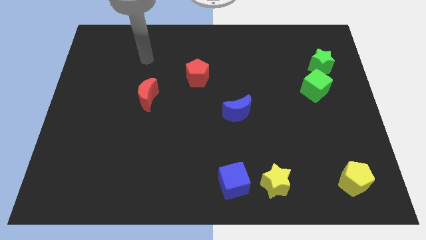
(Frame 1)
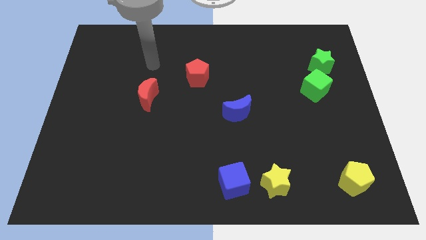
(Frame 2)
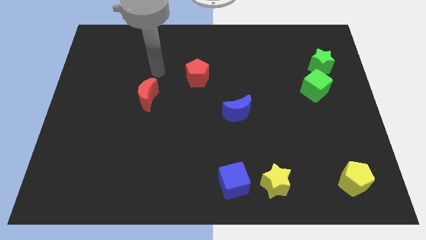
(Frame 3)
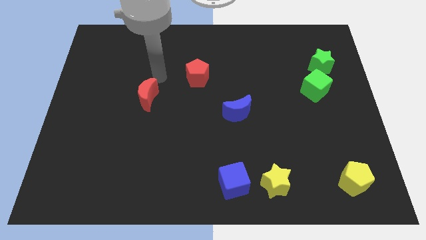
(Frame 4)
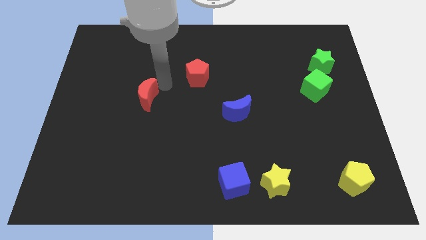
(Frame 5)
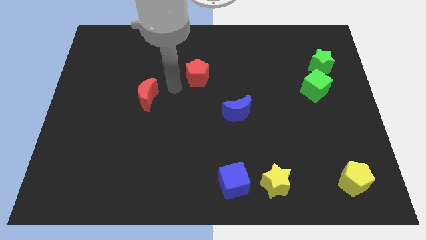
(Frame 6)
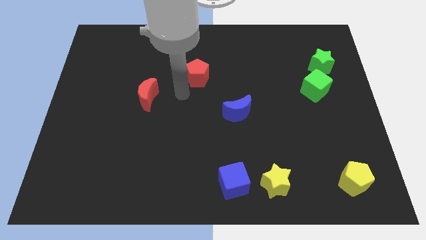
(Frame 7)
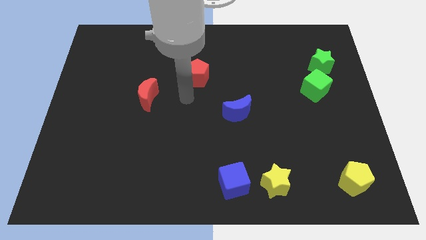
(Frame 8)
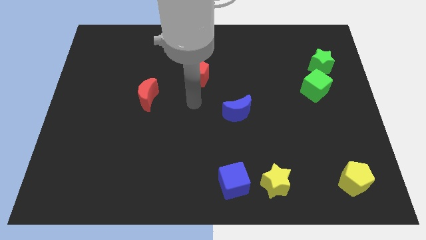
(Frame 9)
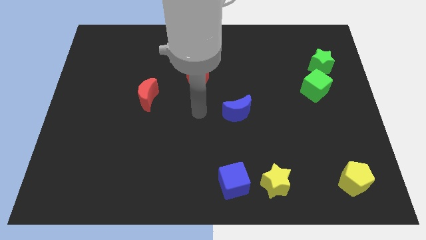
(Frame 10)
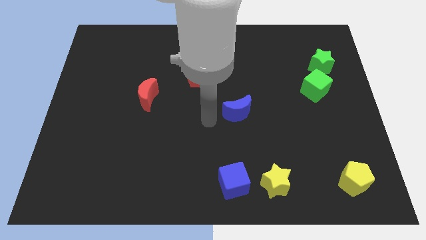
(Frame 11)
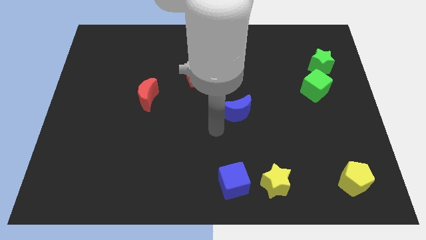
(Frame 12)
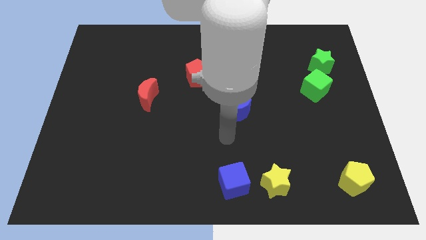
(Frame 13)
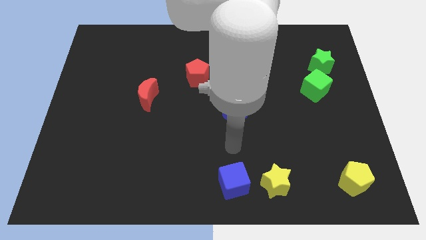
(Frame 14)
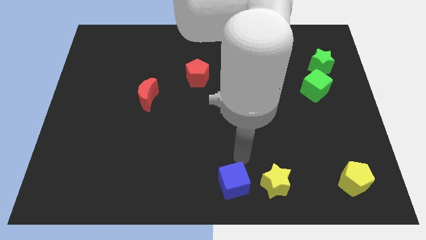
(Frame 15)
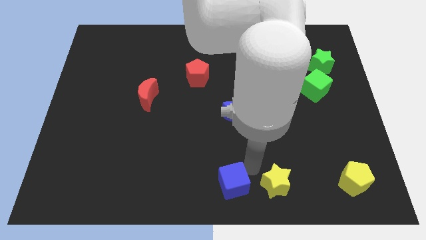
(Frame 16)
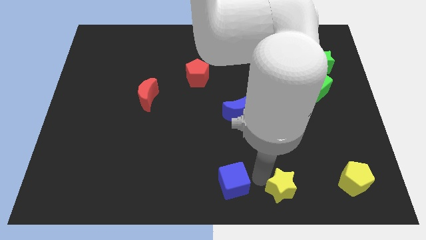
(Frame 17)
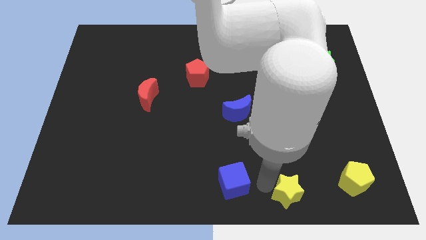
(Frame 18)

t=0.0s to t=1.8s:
pull the blue cube apart from the yellow star

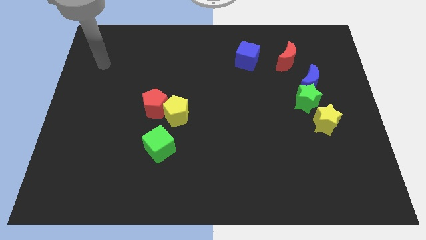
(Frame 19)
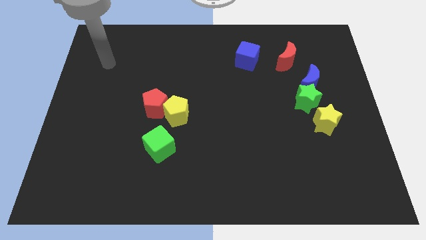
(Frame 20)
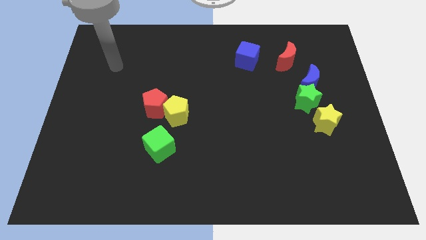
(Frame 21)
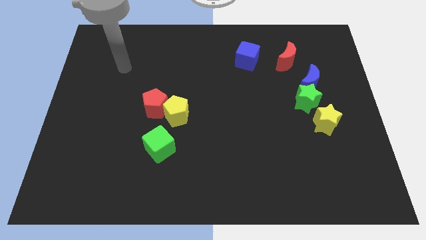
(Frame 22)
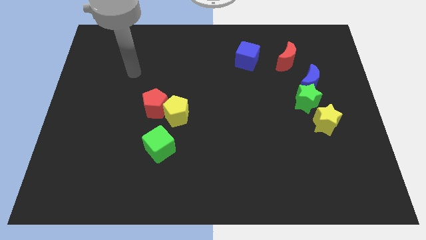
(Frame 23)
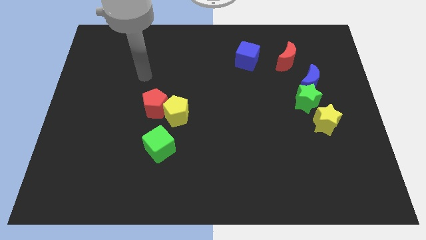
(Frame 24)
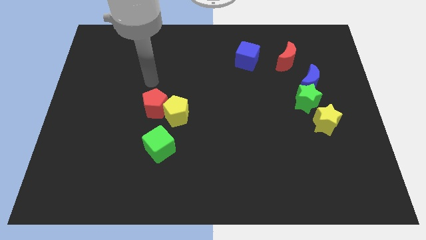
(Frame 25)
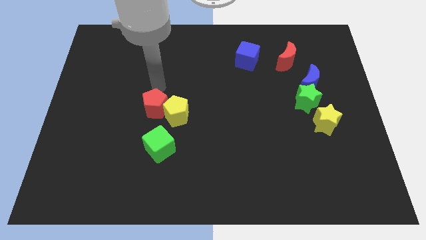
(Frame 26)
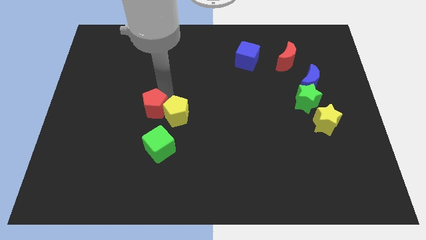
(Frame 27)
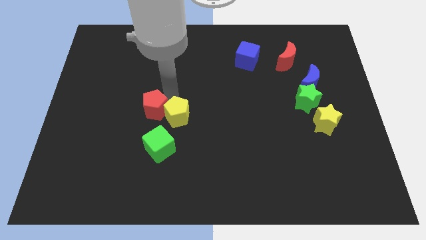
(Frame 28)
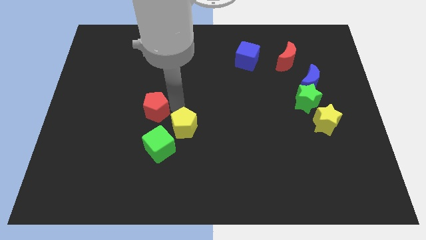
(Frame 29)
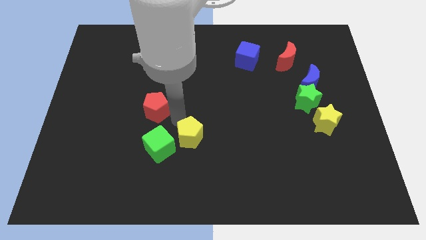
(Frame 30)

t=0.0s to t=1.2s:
pull the red pentagon apart from the yellow pentagon

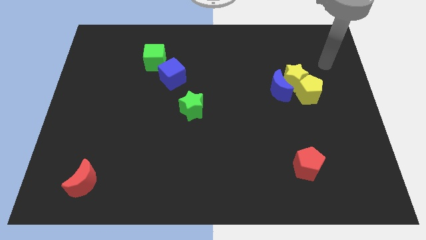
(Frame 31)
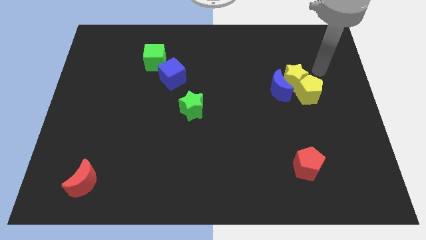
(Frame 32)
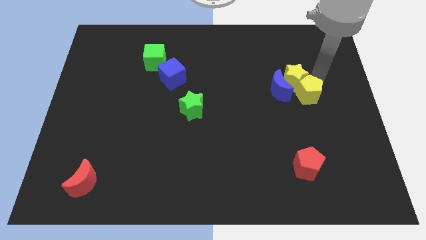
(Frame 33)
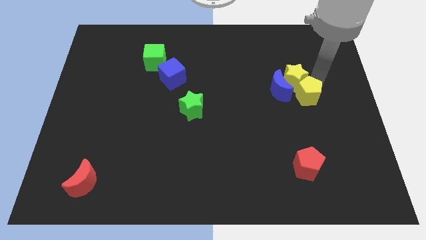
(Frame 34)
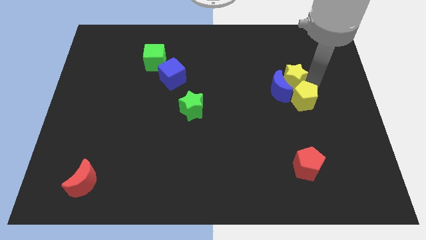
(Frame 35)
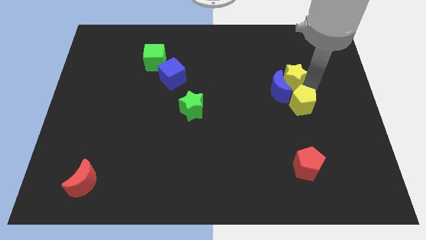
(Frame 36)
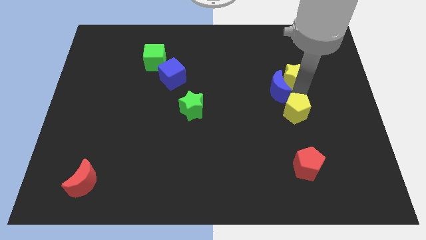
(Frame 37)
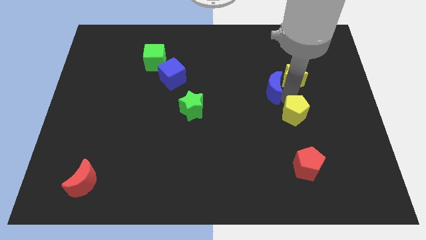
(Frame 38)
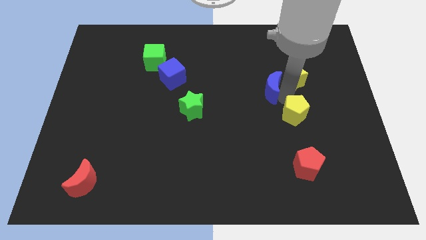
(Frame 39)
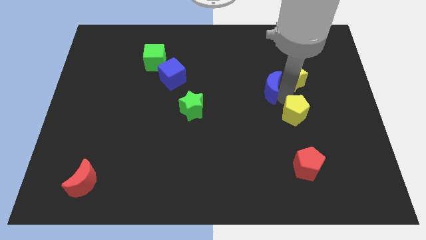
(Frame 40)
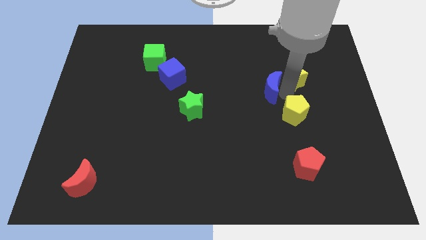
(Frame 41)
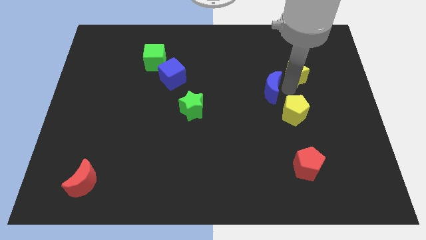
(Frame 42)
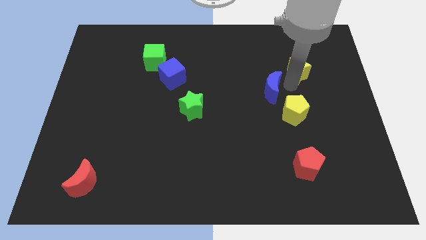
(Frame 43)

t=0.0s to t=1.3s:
move the yellow star away from the blue moon and yellow pentagon

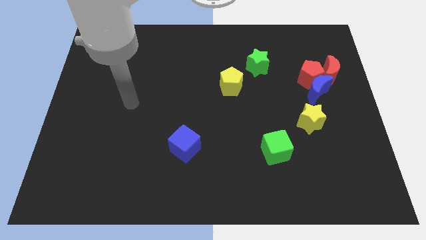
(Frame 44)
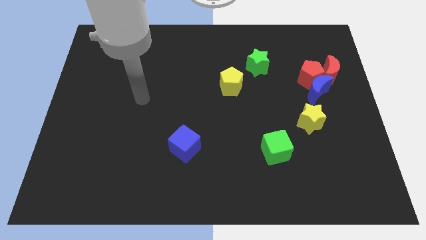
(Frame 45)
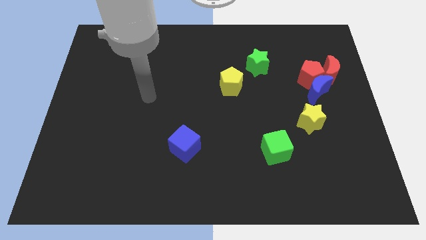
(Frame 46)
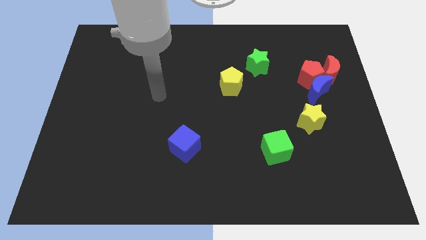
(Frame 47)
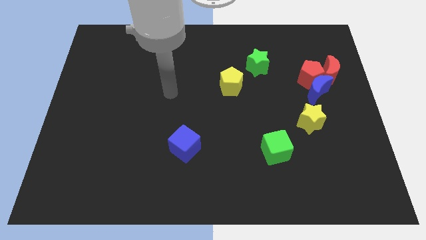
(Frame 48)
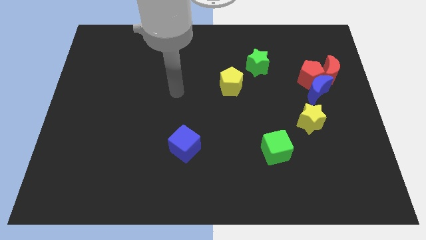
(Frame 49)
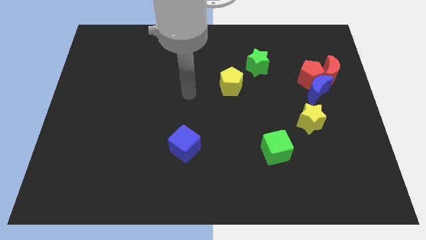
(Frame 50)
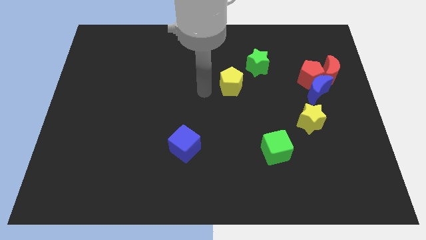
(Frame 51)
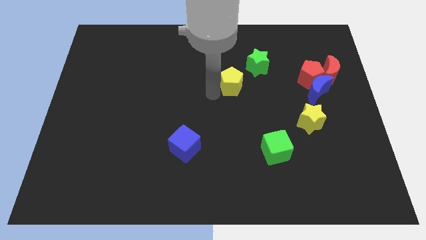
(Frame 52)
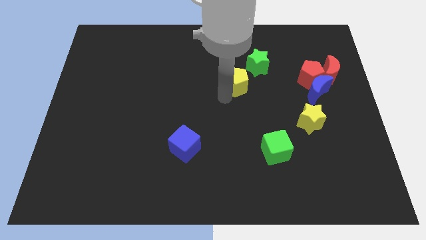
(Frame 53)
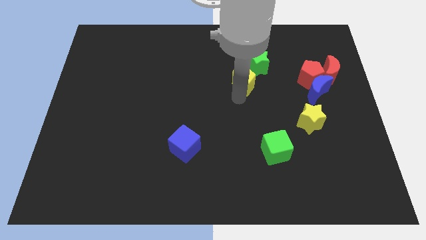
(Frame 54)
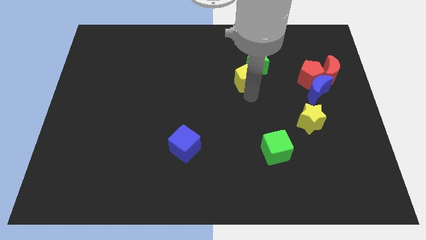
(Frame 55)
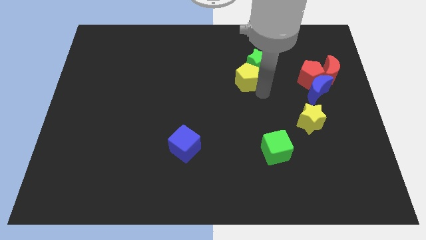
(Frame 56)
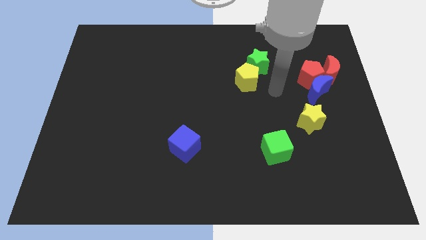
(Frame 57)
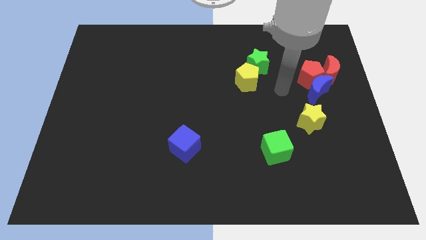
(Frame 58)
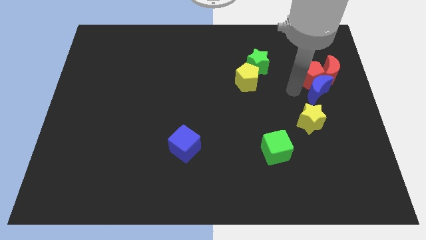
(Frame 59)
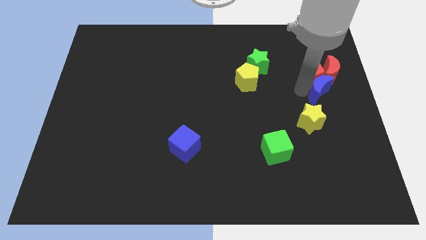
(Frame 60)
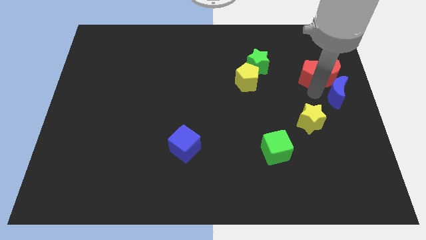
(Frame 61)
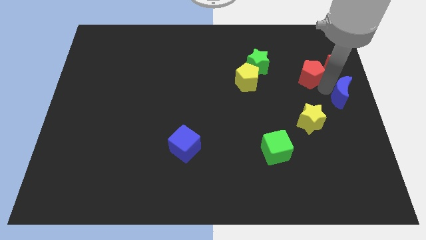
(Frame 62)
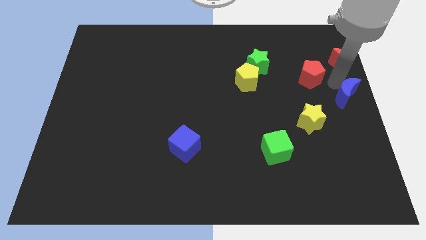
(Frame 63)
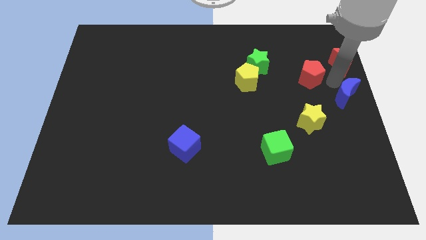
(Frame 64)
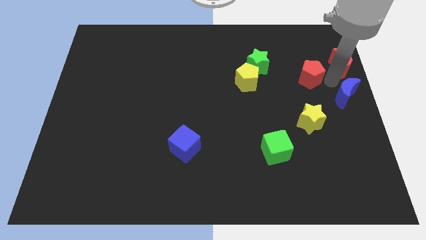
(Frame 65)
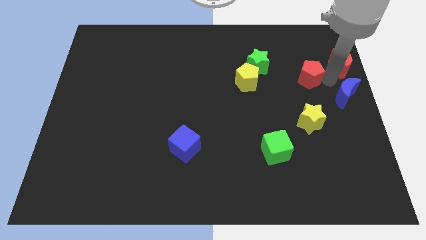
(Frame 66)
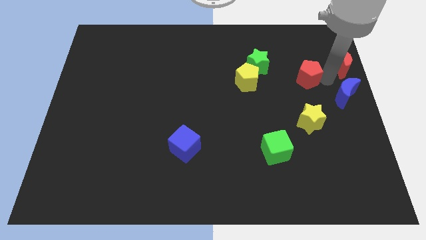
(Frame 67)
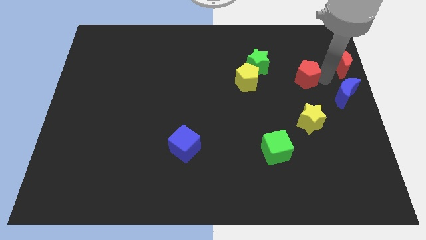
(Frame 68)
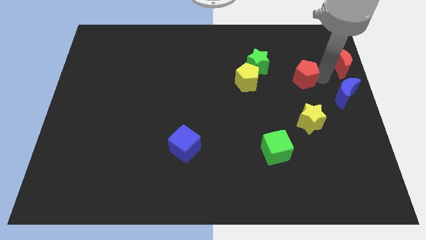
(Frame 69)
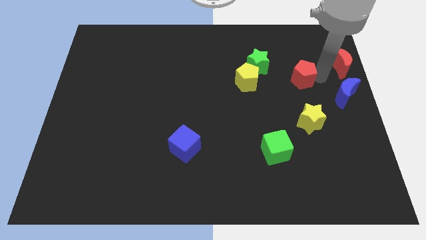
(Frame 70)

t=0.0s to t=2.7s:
separate the red pentagon from the blue moon and red moon

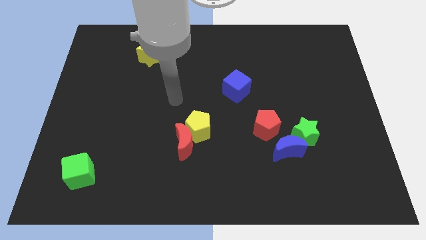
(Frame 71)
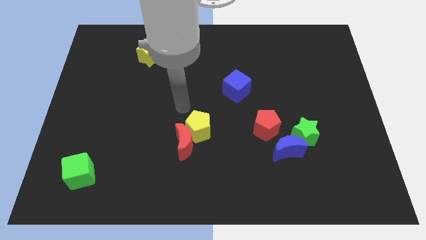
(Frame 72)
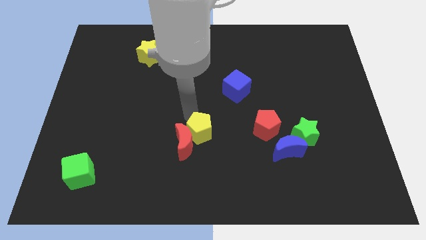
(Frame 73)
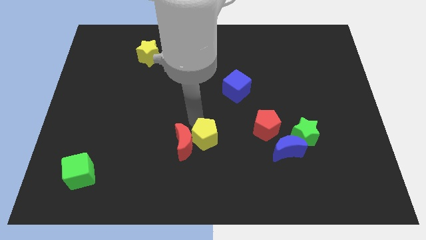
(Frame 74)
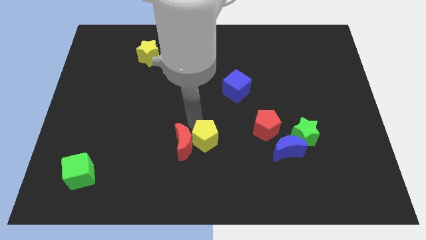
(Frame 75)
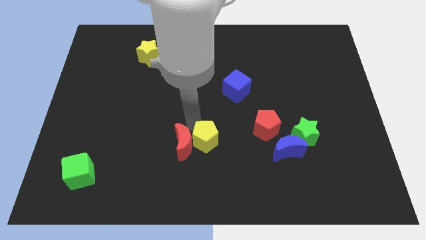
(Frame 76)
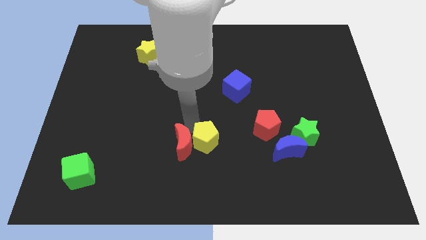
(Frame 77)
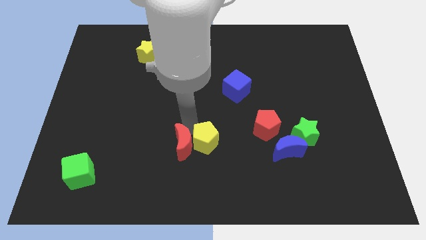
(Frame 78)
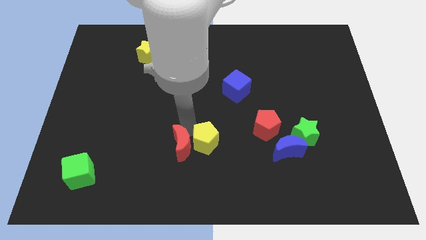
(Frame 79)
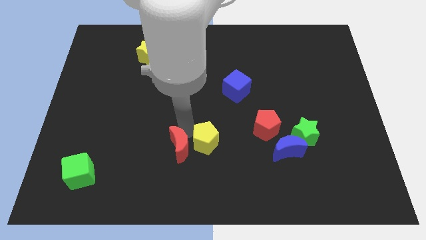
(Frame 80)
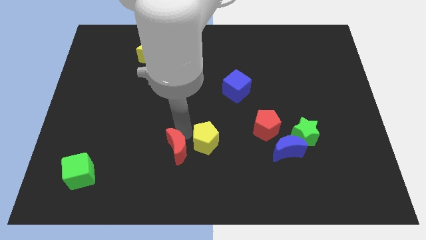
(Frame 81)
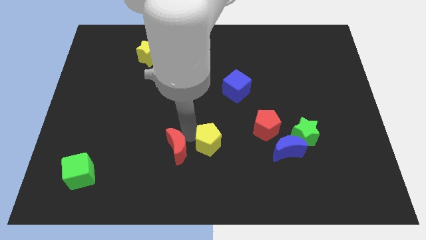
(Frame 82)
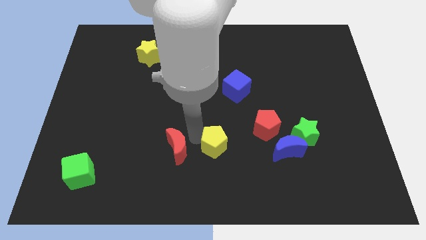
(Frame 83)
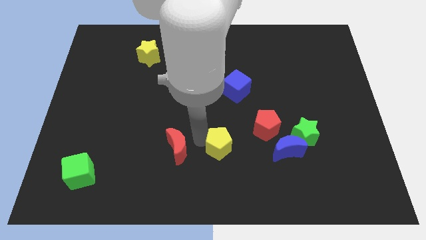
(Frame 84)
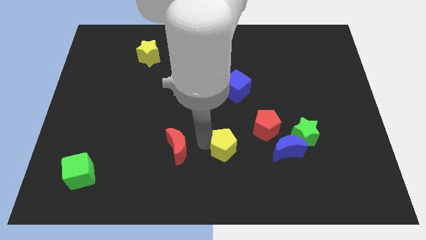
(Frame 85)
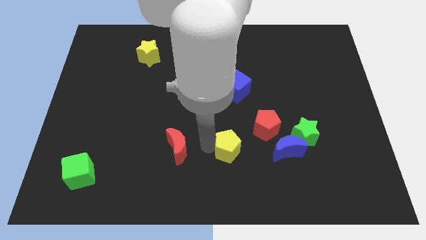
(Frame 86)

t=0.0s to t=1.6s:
move the red moon away from the yellow pentagon

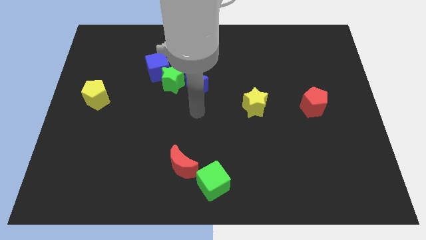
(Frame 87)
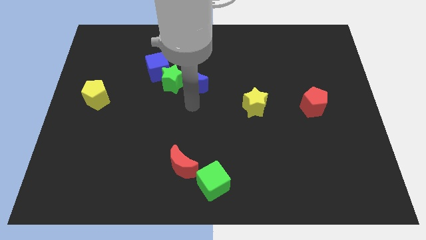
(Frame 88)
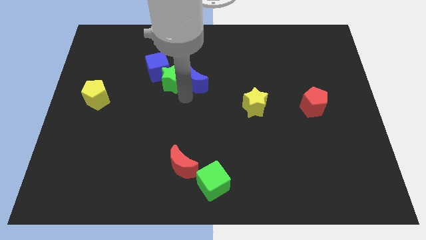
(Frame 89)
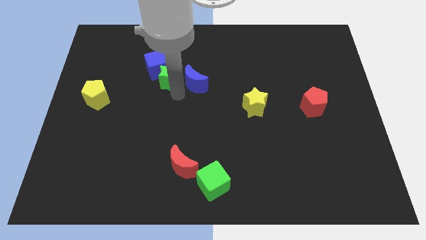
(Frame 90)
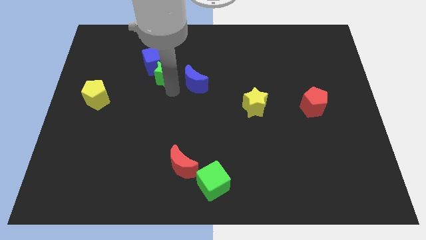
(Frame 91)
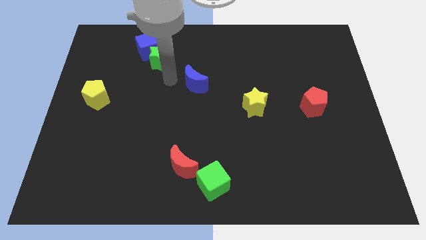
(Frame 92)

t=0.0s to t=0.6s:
separate the blue moon from the green star

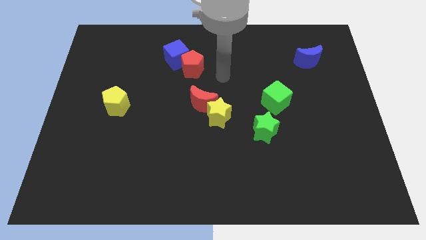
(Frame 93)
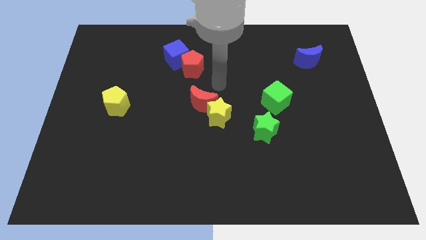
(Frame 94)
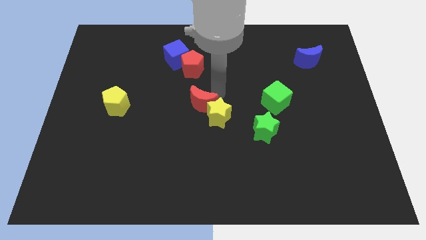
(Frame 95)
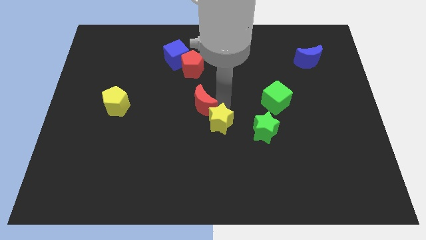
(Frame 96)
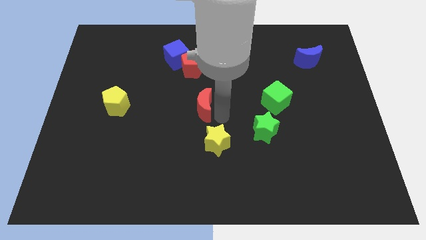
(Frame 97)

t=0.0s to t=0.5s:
pull the red moon apart from the yellow star
